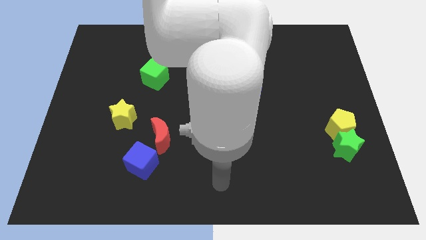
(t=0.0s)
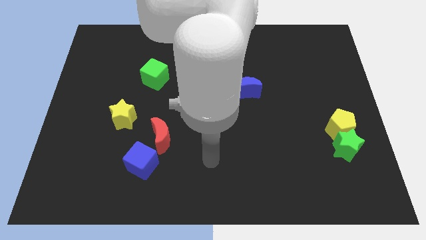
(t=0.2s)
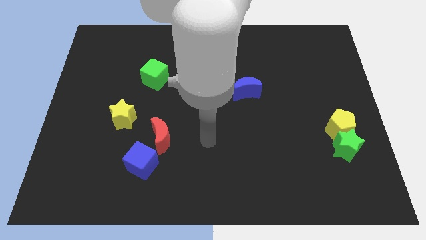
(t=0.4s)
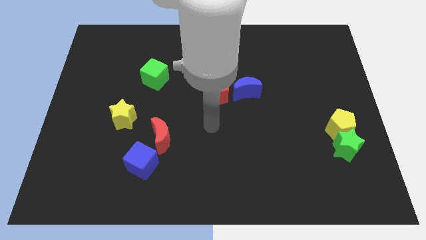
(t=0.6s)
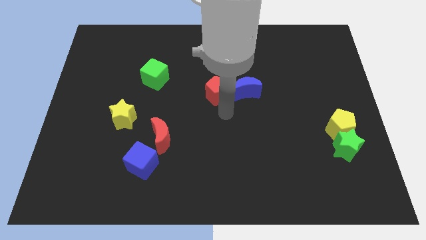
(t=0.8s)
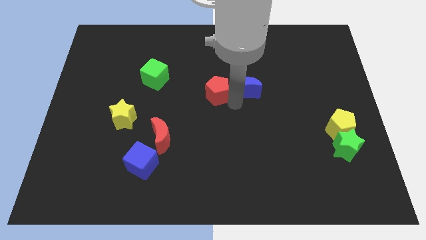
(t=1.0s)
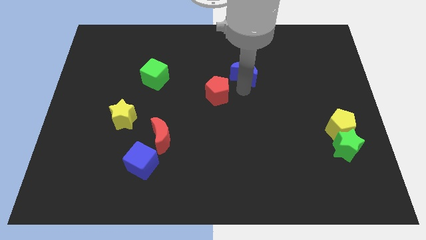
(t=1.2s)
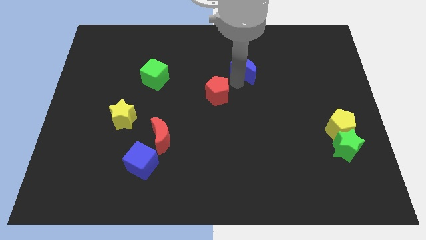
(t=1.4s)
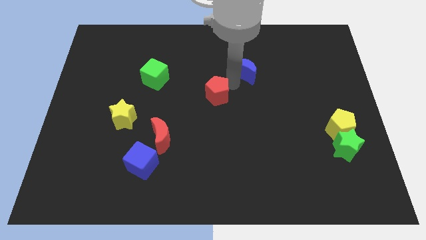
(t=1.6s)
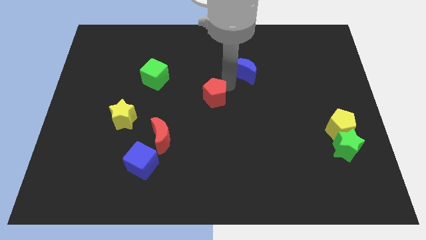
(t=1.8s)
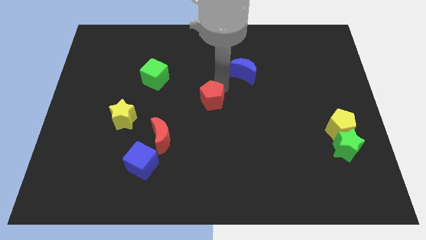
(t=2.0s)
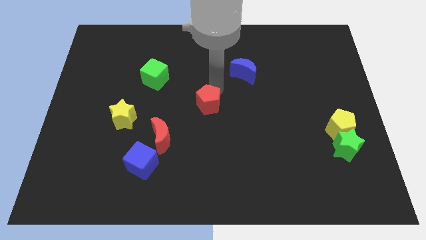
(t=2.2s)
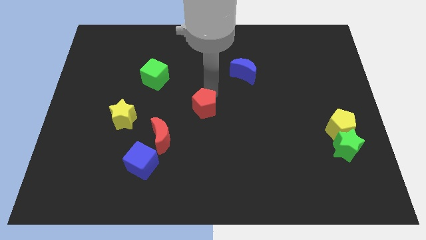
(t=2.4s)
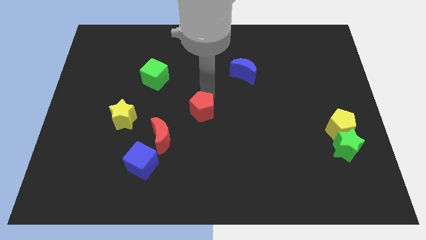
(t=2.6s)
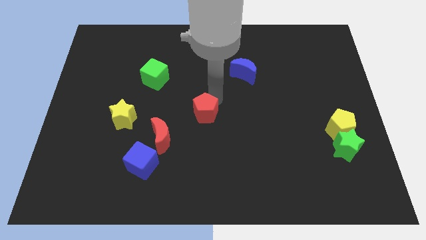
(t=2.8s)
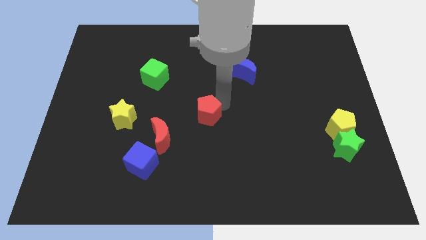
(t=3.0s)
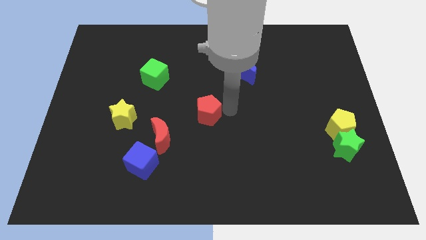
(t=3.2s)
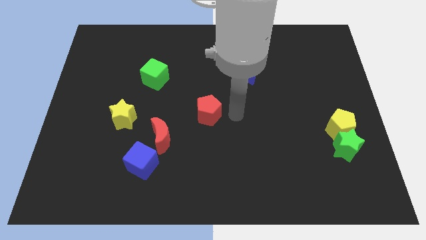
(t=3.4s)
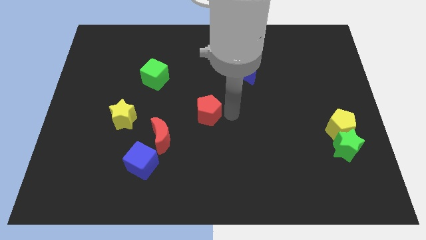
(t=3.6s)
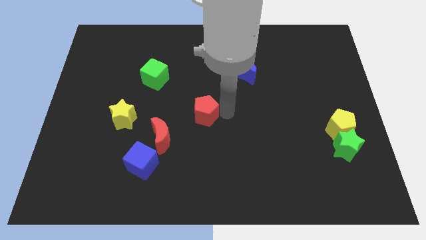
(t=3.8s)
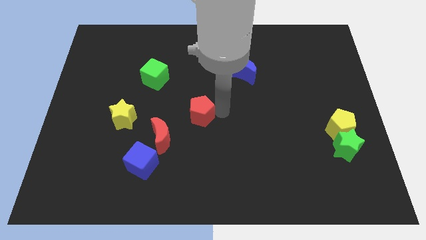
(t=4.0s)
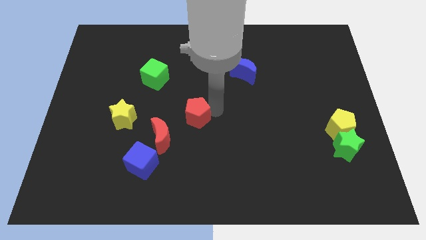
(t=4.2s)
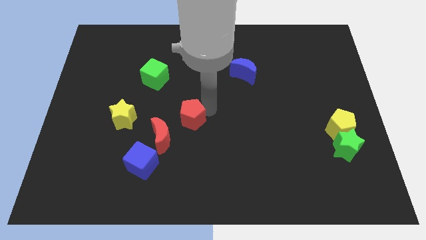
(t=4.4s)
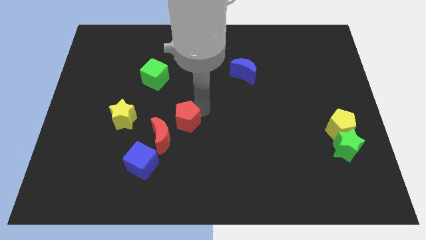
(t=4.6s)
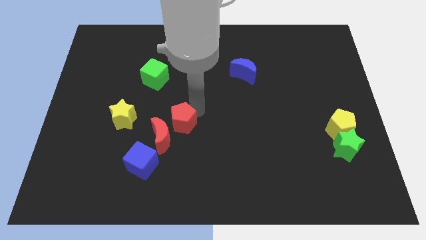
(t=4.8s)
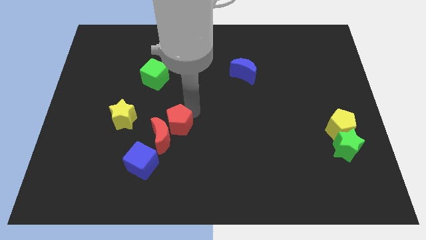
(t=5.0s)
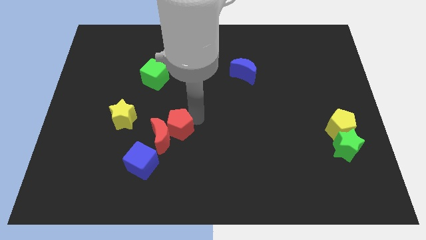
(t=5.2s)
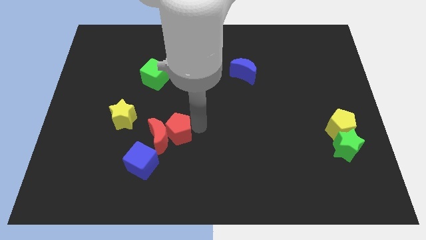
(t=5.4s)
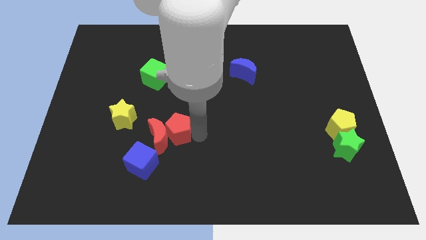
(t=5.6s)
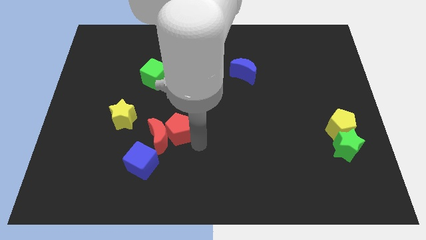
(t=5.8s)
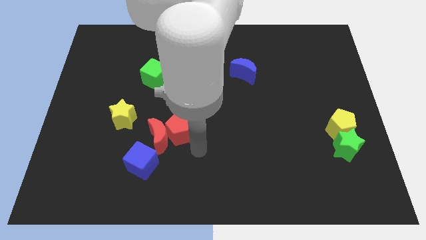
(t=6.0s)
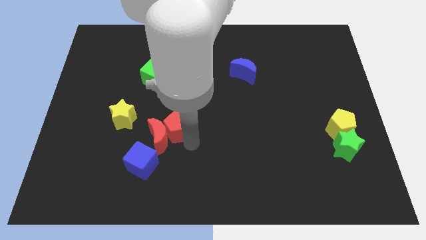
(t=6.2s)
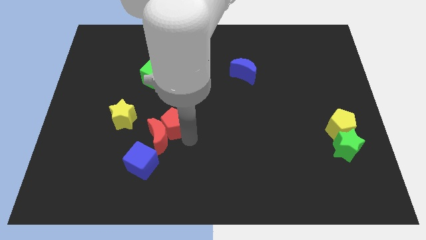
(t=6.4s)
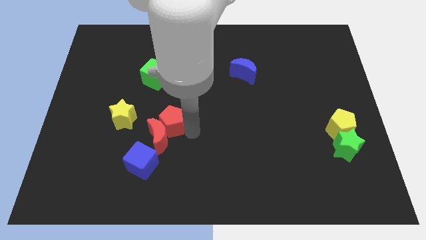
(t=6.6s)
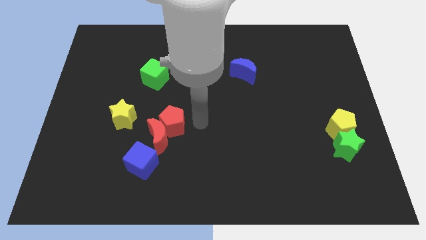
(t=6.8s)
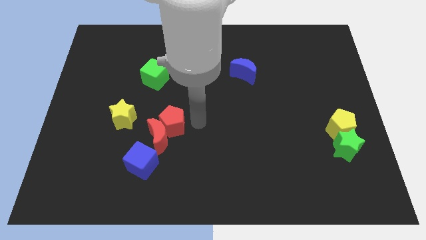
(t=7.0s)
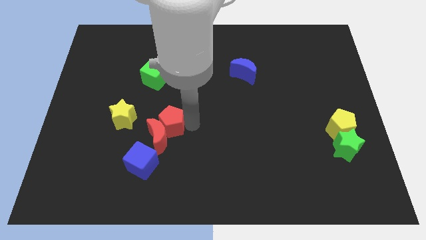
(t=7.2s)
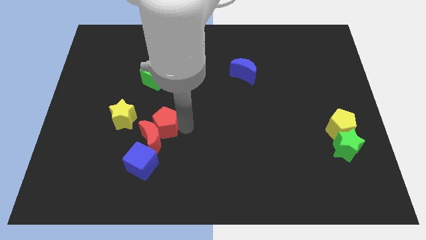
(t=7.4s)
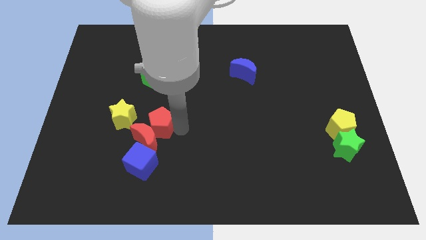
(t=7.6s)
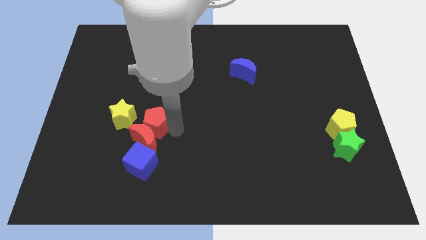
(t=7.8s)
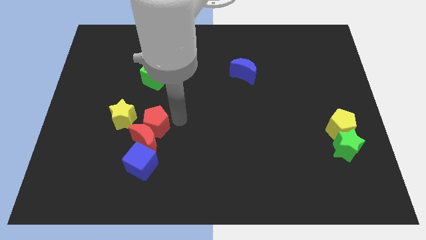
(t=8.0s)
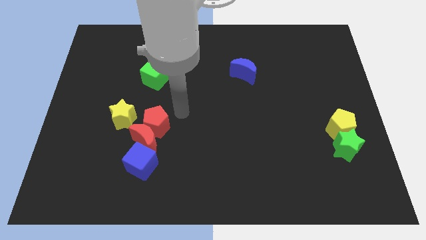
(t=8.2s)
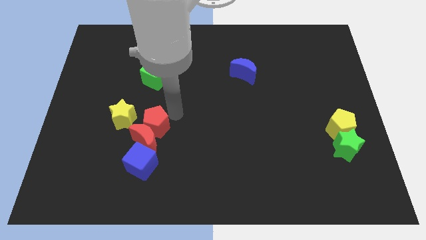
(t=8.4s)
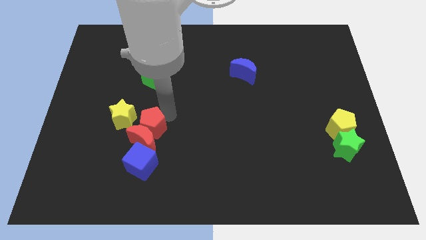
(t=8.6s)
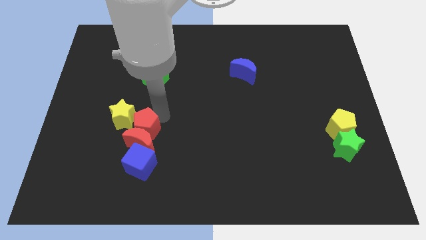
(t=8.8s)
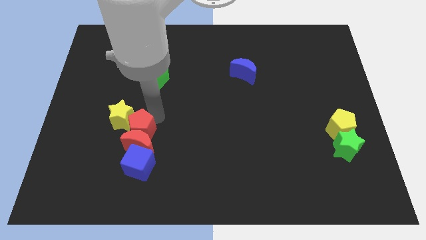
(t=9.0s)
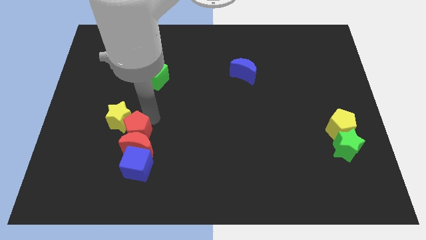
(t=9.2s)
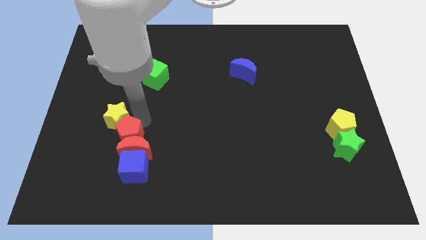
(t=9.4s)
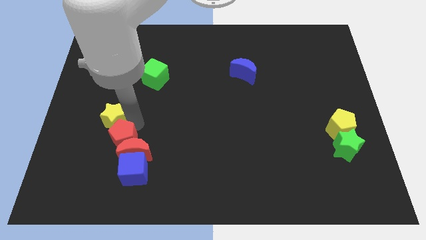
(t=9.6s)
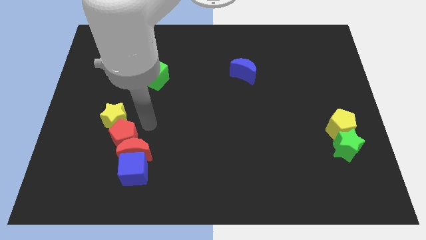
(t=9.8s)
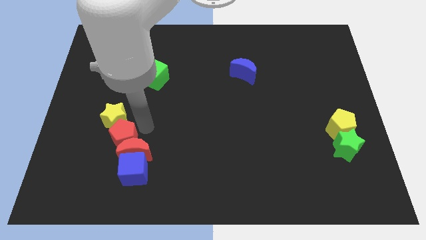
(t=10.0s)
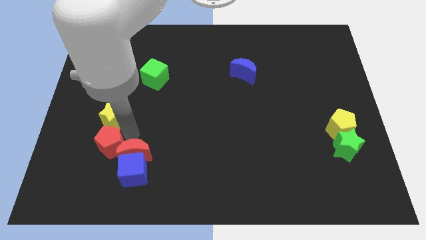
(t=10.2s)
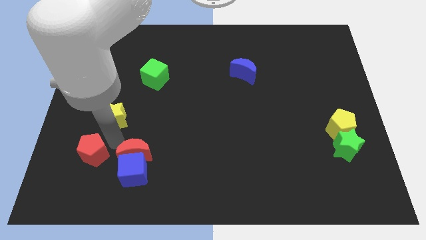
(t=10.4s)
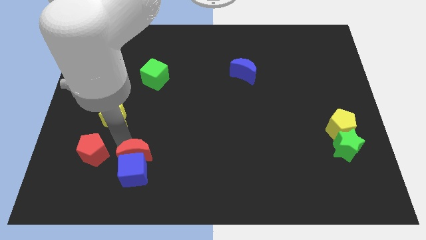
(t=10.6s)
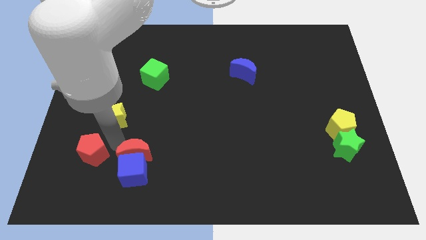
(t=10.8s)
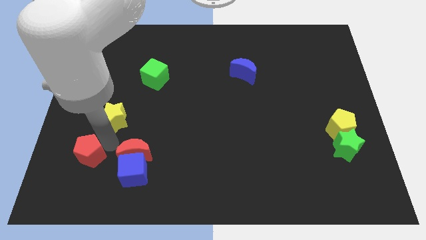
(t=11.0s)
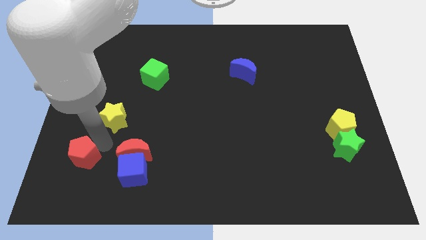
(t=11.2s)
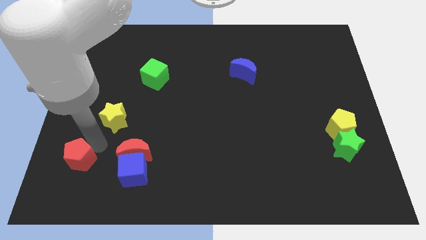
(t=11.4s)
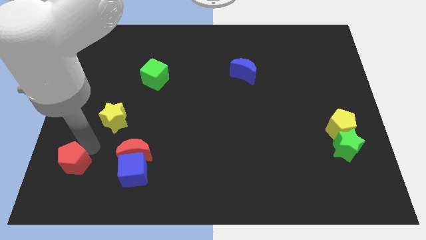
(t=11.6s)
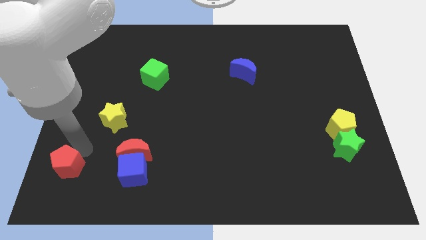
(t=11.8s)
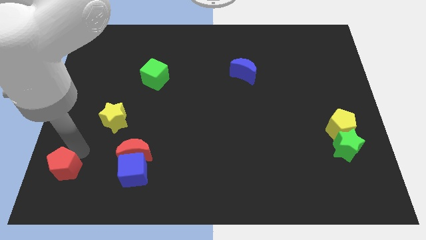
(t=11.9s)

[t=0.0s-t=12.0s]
slide the red pentagon to the lower left corner
